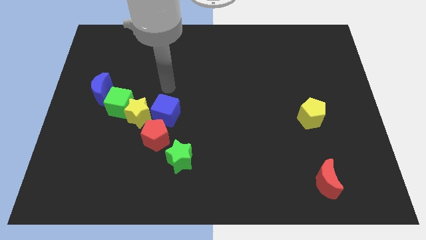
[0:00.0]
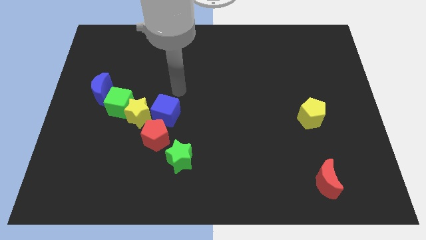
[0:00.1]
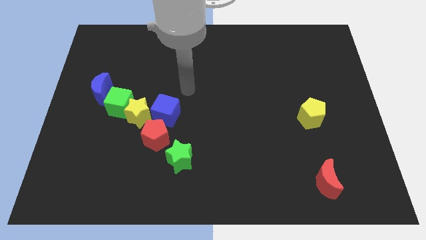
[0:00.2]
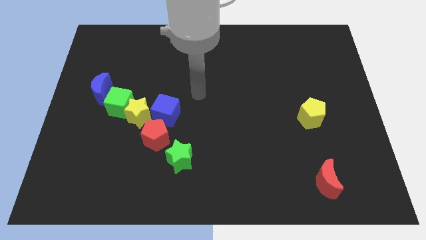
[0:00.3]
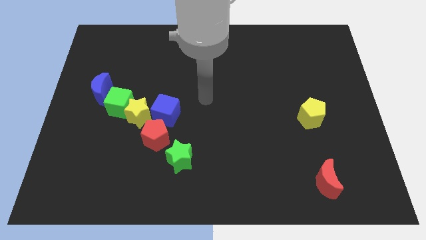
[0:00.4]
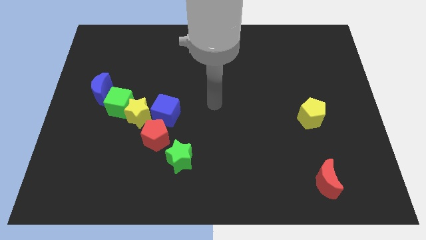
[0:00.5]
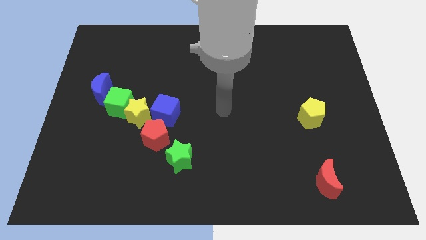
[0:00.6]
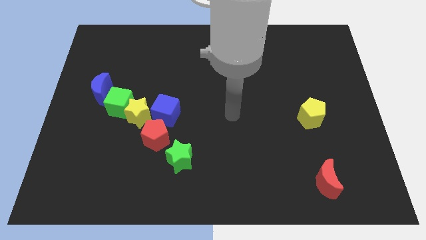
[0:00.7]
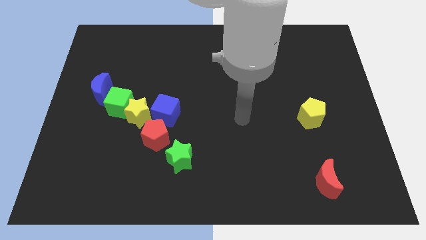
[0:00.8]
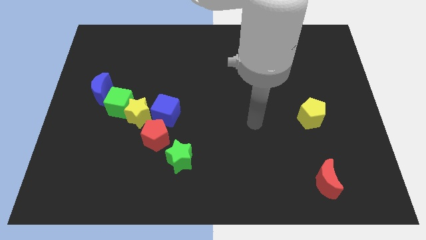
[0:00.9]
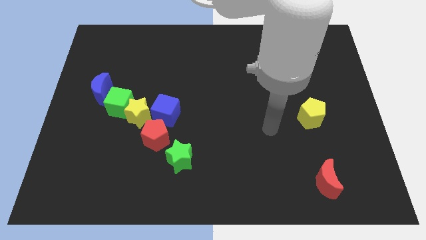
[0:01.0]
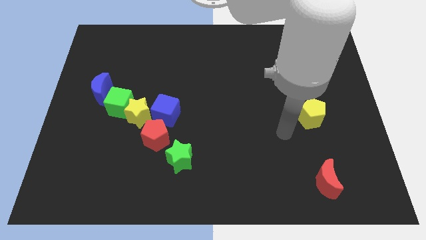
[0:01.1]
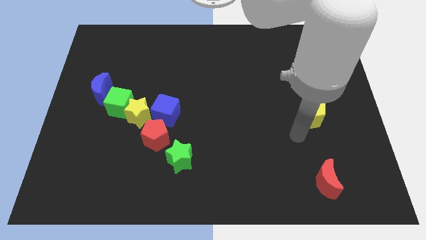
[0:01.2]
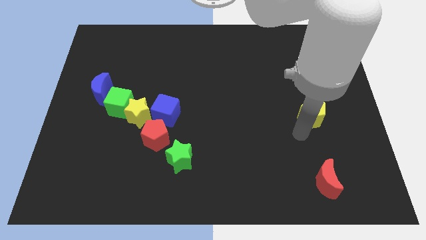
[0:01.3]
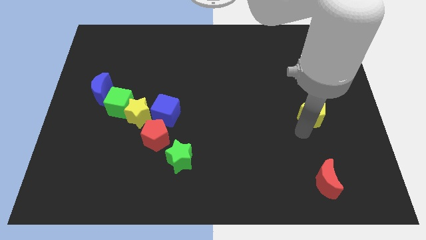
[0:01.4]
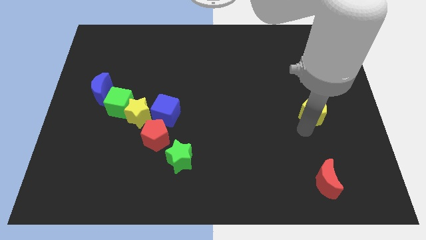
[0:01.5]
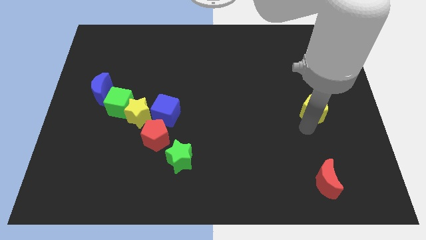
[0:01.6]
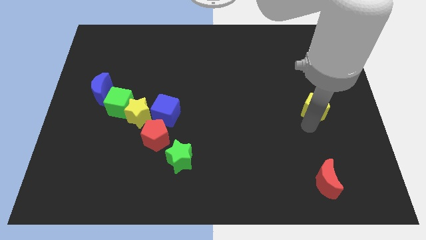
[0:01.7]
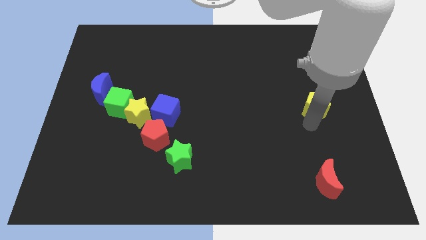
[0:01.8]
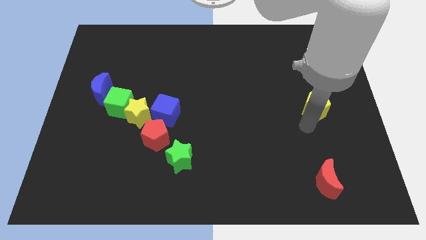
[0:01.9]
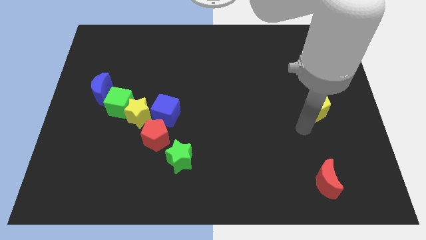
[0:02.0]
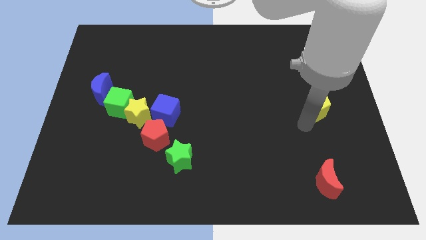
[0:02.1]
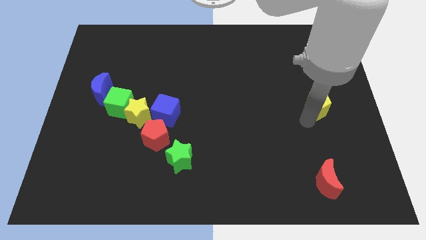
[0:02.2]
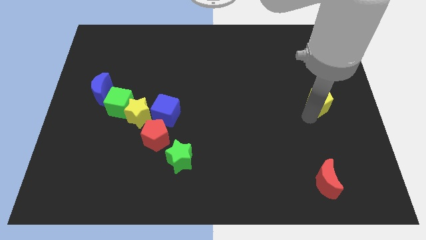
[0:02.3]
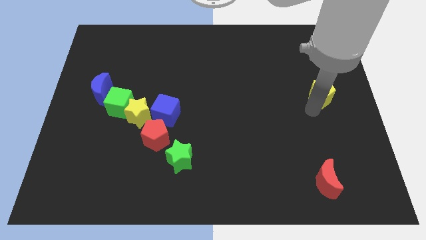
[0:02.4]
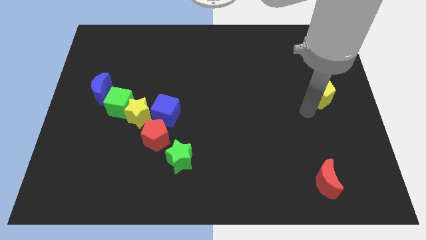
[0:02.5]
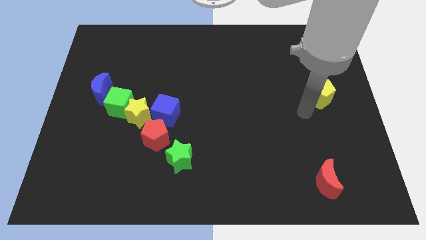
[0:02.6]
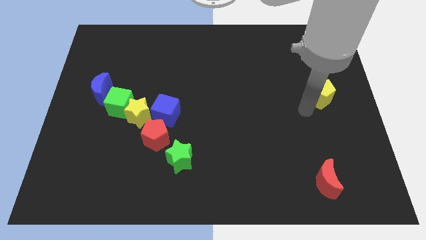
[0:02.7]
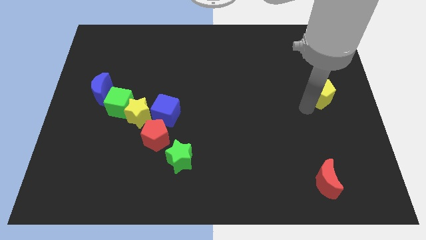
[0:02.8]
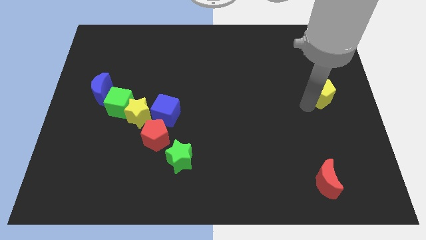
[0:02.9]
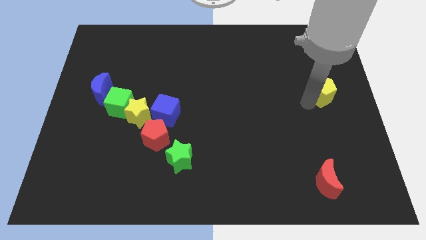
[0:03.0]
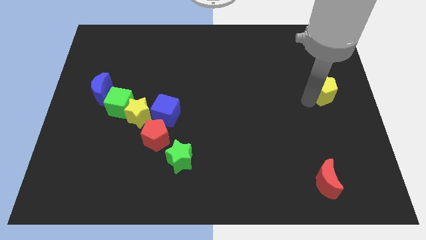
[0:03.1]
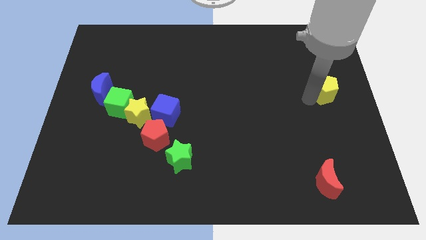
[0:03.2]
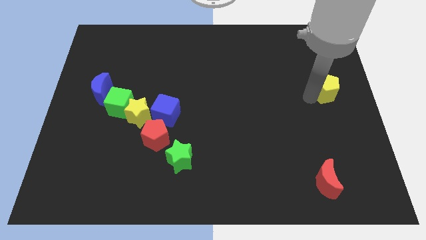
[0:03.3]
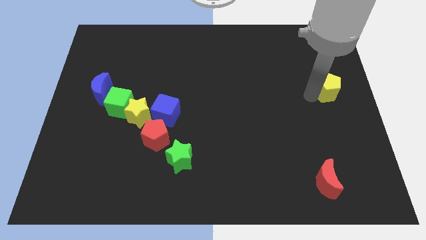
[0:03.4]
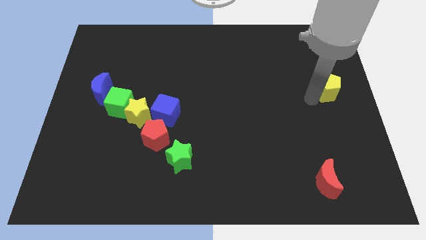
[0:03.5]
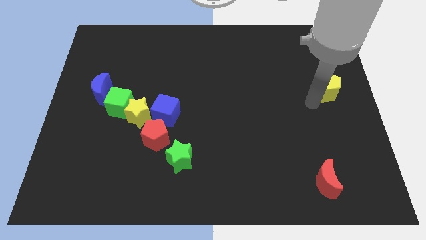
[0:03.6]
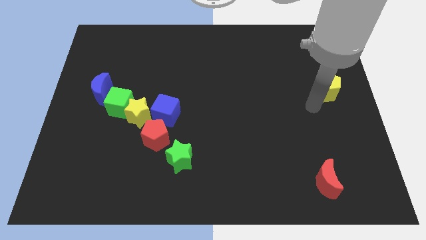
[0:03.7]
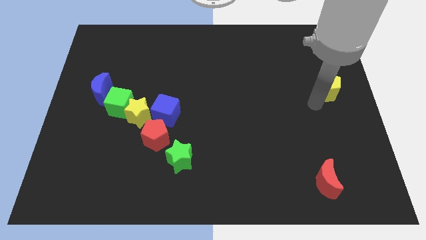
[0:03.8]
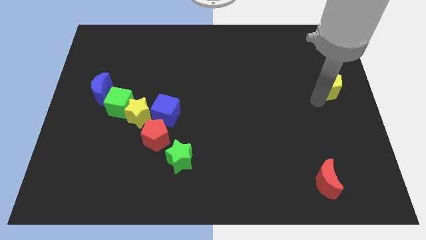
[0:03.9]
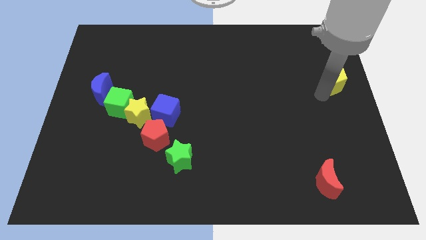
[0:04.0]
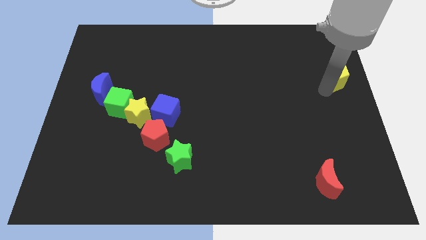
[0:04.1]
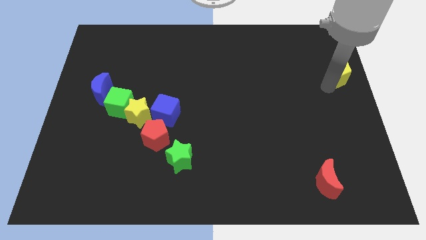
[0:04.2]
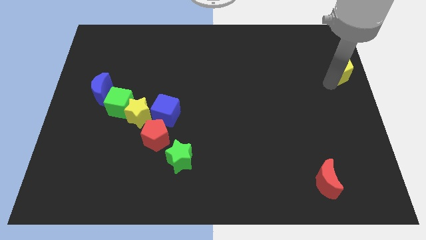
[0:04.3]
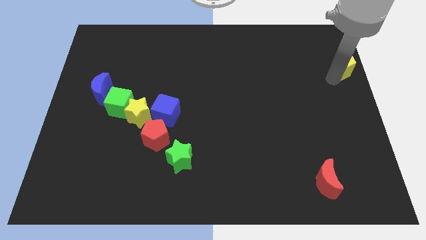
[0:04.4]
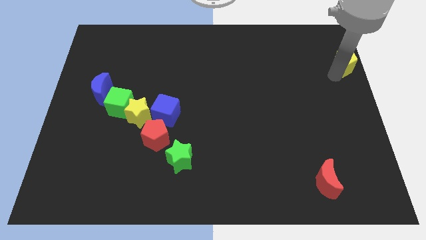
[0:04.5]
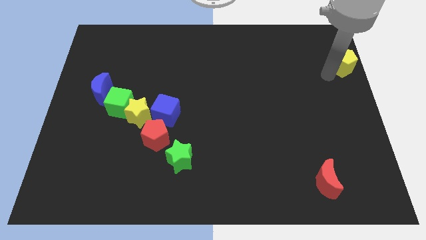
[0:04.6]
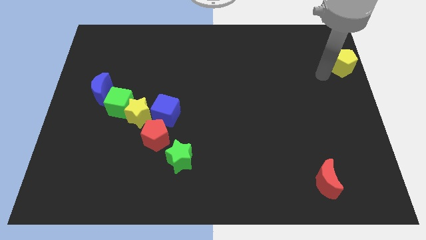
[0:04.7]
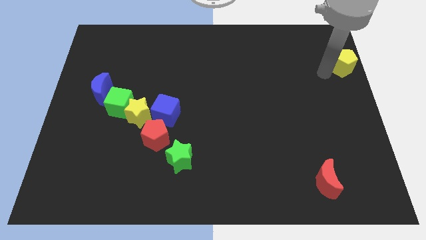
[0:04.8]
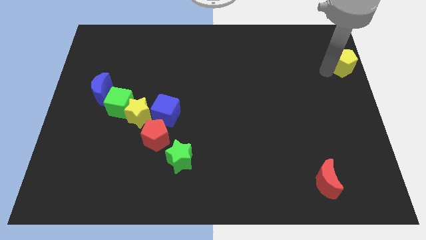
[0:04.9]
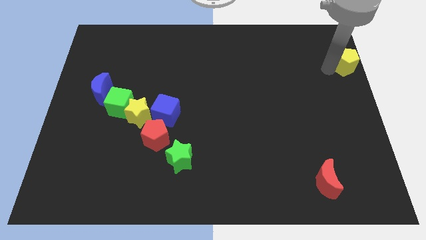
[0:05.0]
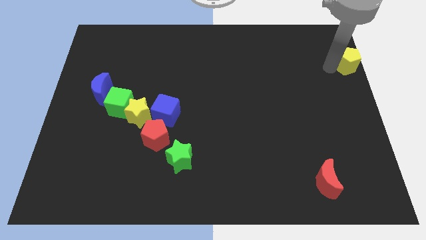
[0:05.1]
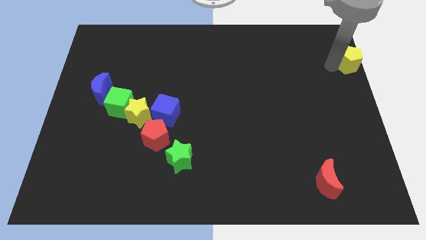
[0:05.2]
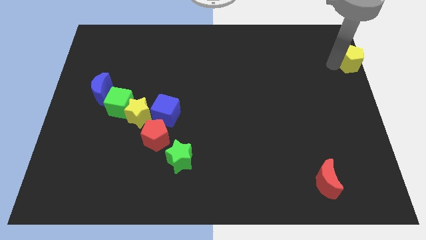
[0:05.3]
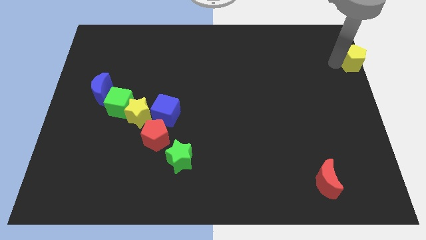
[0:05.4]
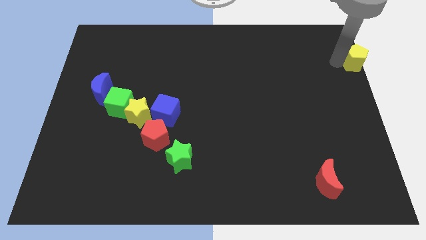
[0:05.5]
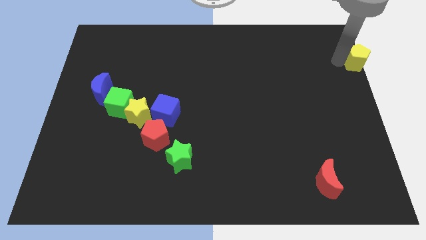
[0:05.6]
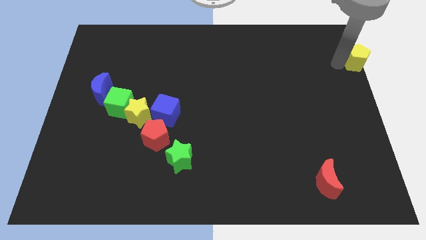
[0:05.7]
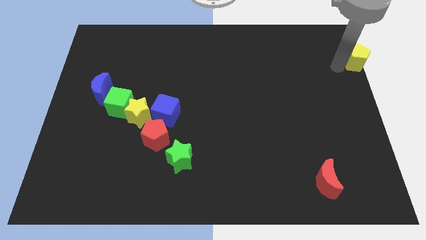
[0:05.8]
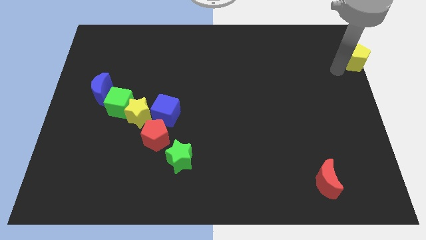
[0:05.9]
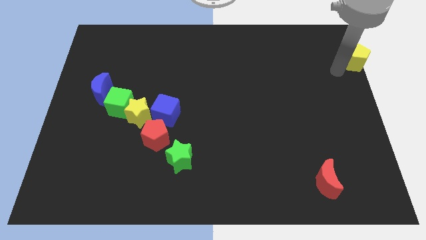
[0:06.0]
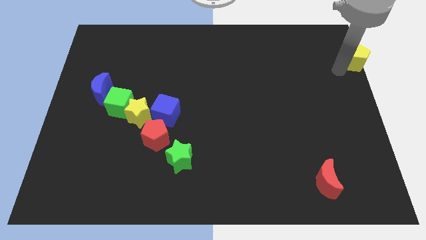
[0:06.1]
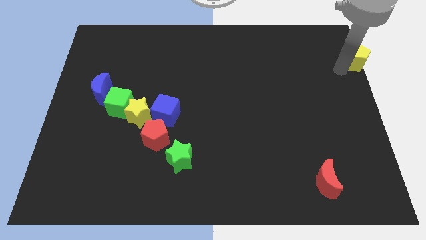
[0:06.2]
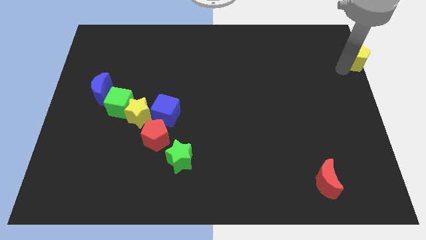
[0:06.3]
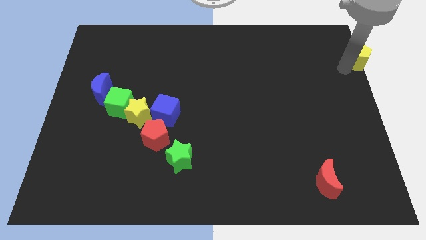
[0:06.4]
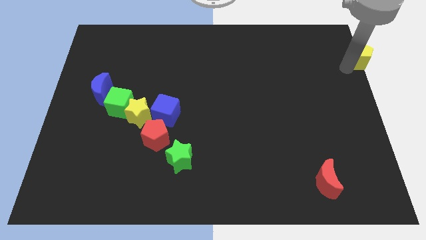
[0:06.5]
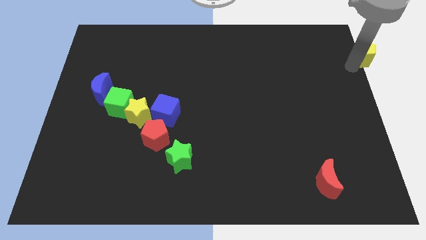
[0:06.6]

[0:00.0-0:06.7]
put the yellow pentagon to the top right
